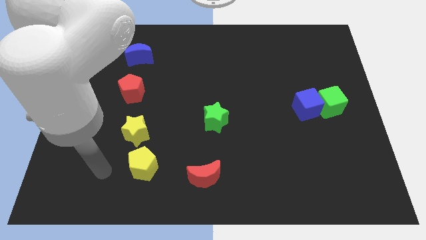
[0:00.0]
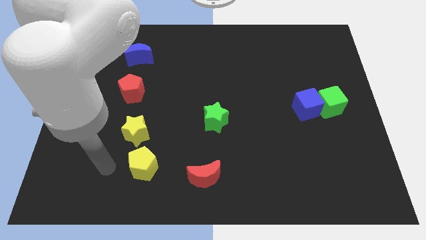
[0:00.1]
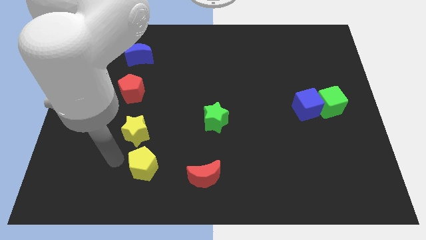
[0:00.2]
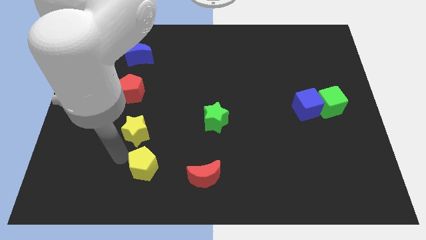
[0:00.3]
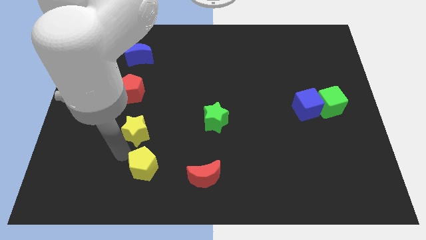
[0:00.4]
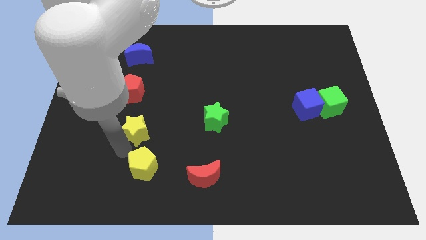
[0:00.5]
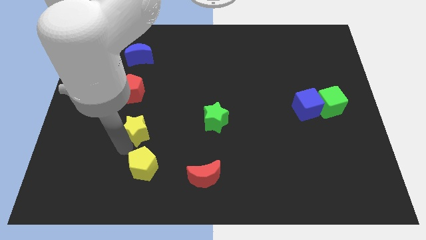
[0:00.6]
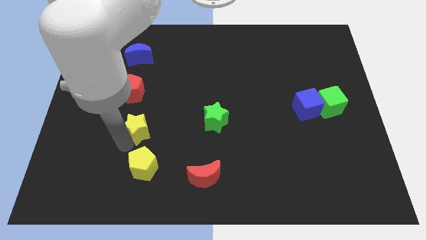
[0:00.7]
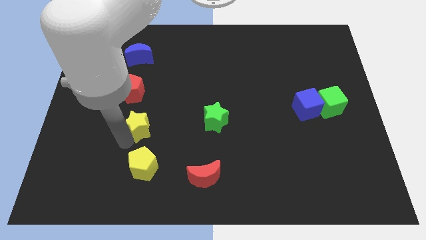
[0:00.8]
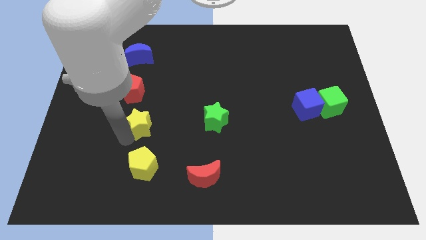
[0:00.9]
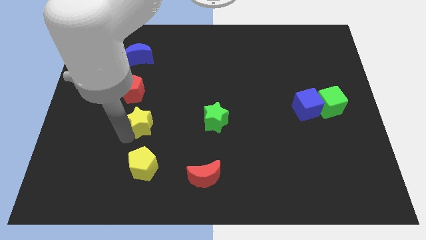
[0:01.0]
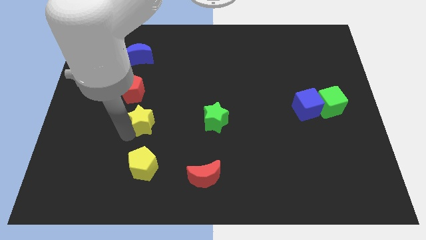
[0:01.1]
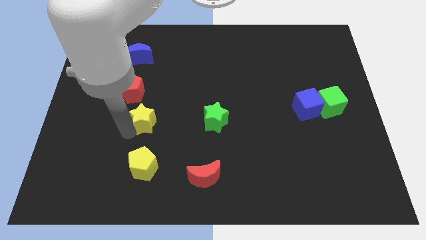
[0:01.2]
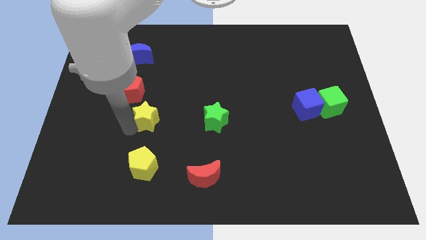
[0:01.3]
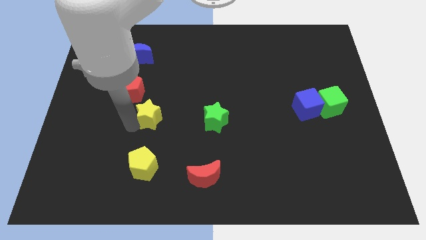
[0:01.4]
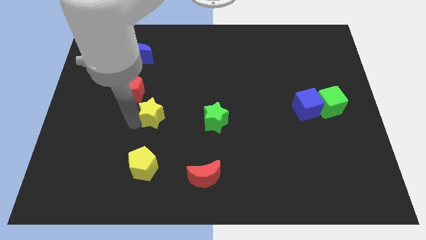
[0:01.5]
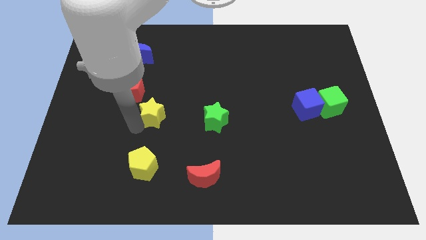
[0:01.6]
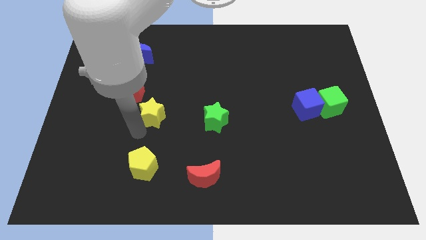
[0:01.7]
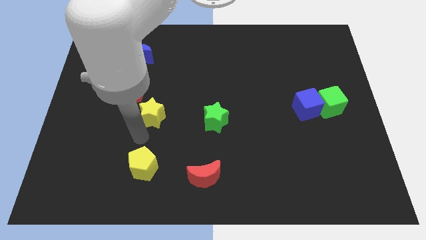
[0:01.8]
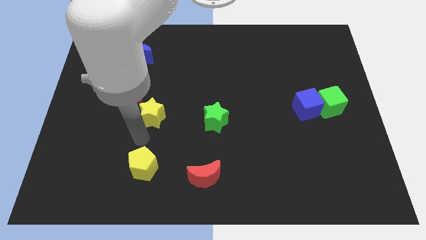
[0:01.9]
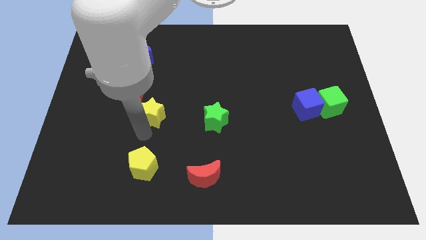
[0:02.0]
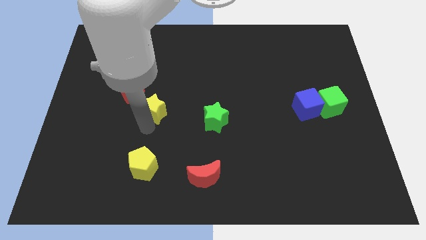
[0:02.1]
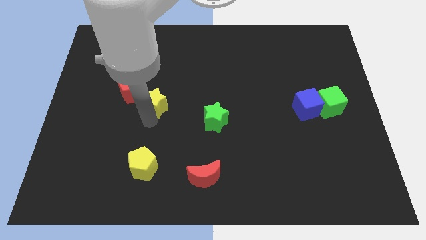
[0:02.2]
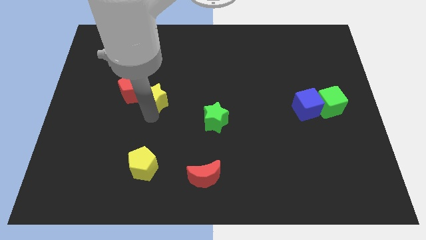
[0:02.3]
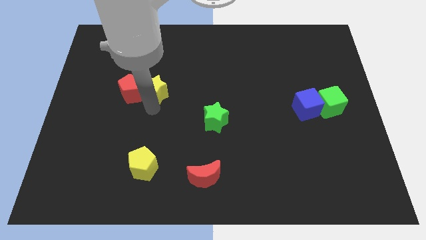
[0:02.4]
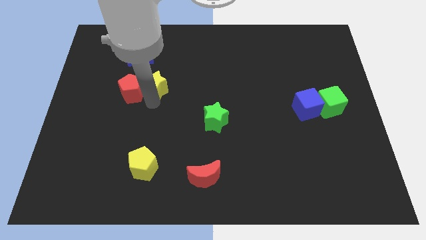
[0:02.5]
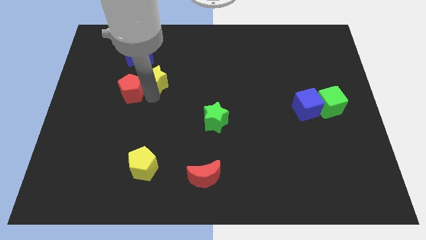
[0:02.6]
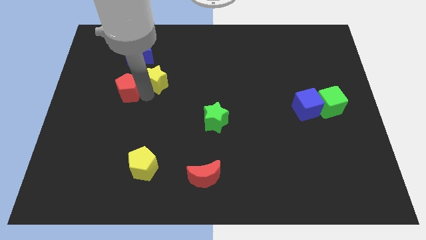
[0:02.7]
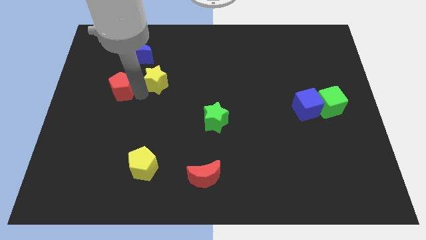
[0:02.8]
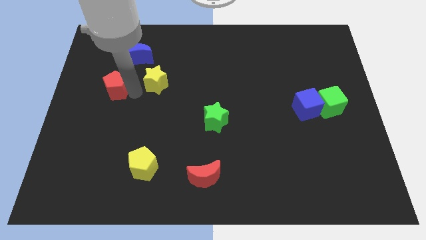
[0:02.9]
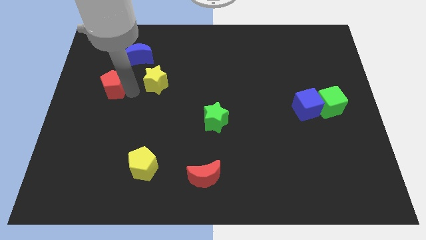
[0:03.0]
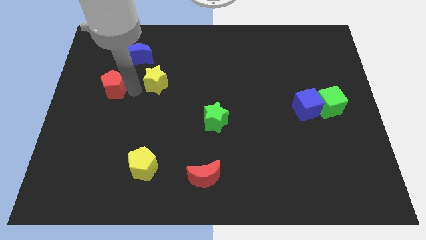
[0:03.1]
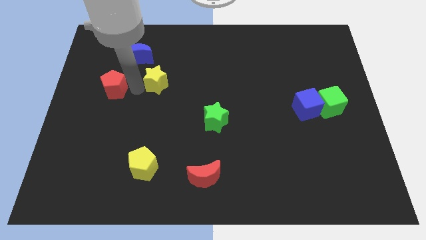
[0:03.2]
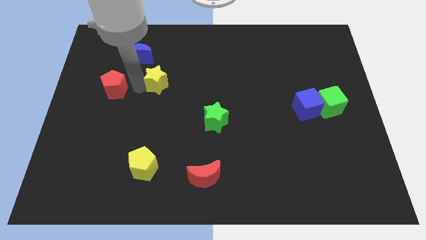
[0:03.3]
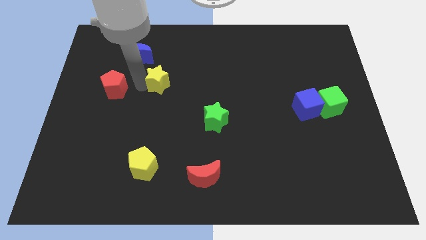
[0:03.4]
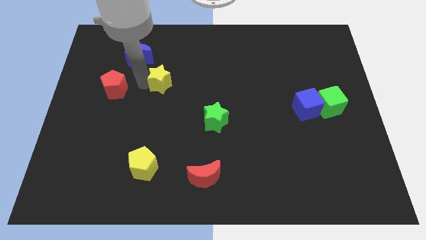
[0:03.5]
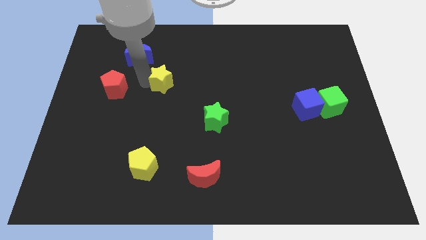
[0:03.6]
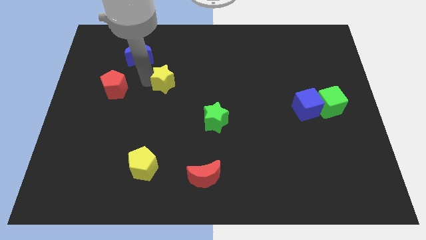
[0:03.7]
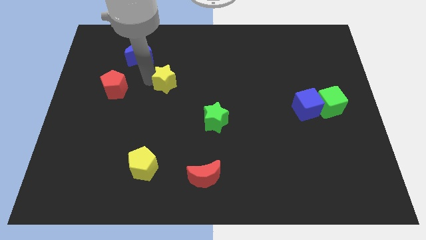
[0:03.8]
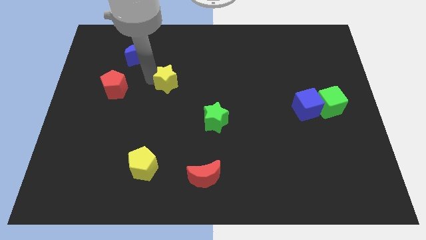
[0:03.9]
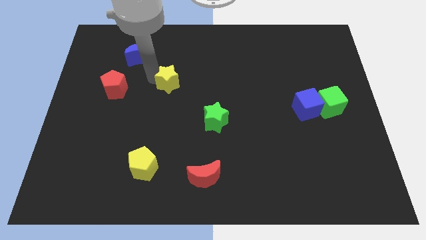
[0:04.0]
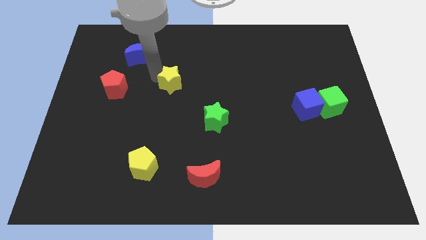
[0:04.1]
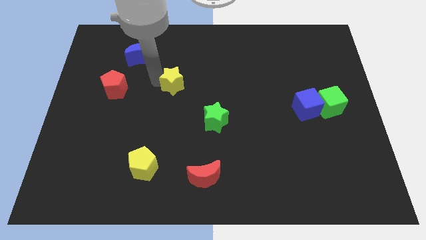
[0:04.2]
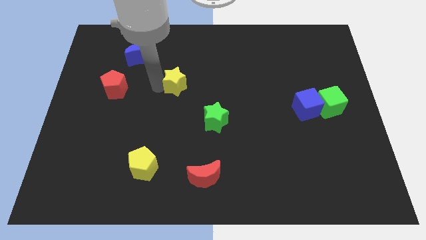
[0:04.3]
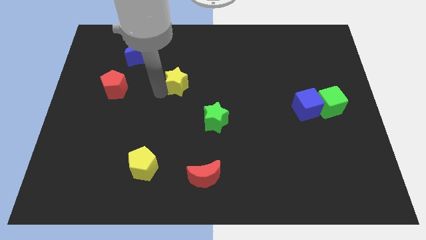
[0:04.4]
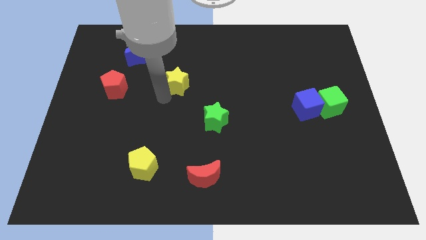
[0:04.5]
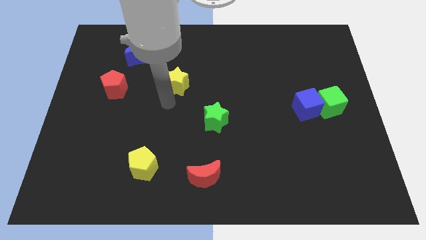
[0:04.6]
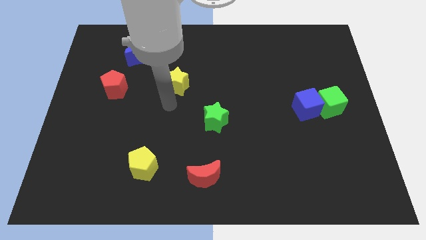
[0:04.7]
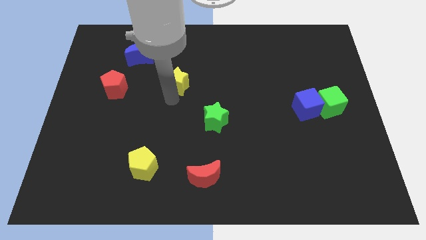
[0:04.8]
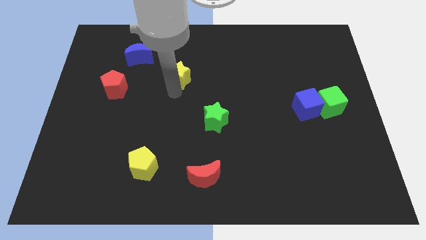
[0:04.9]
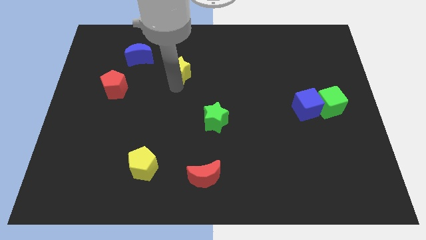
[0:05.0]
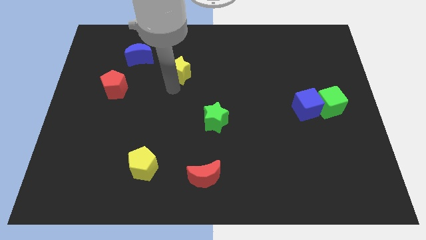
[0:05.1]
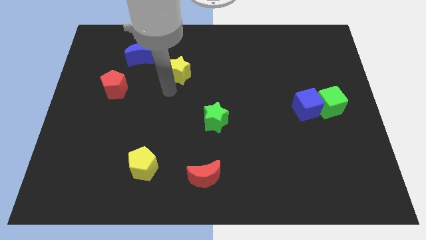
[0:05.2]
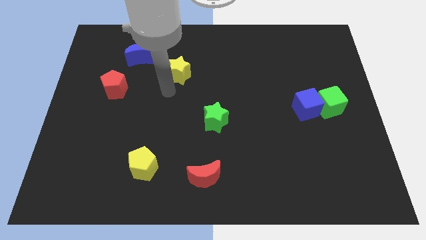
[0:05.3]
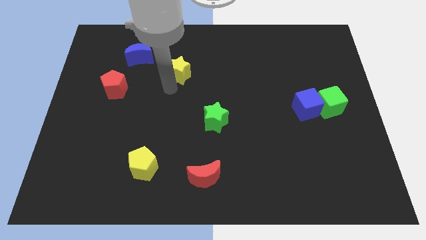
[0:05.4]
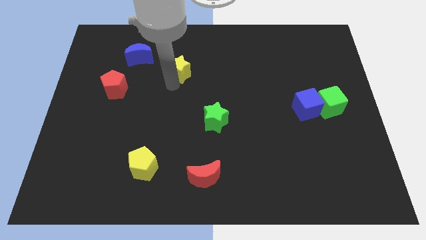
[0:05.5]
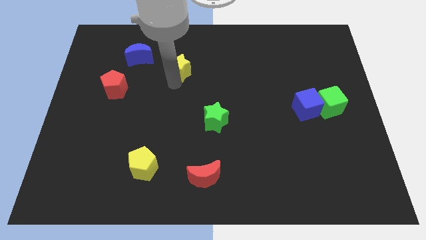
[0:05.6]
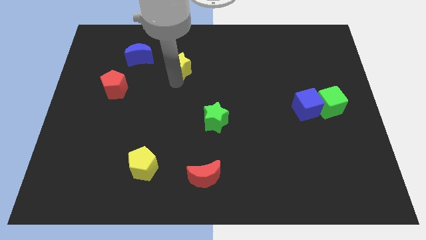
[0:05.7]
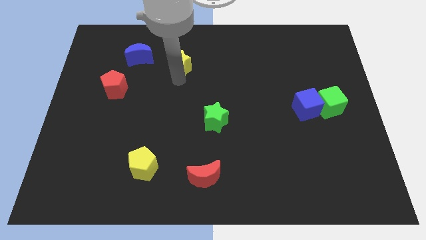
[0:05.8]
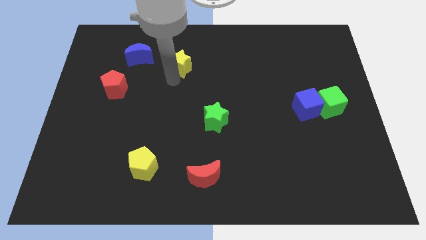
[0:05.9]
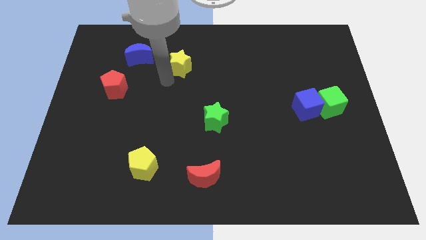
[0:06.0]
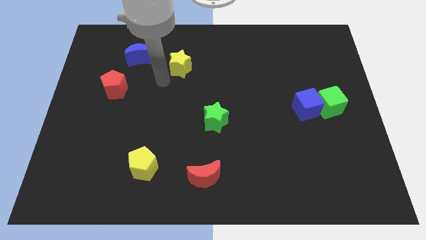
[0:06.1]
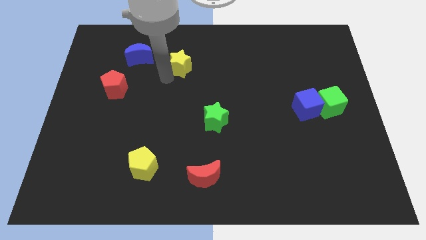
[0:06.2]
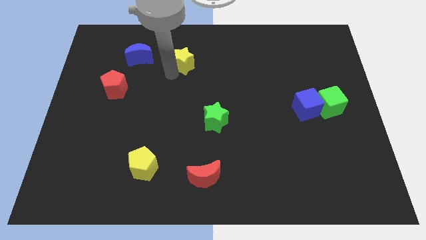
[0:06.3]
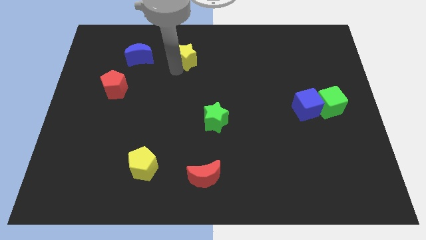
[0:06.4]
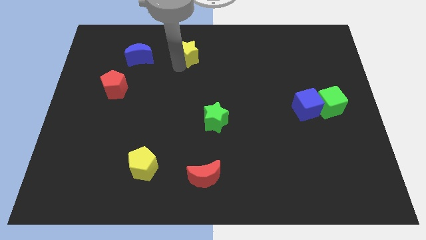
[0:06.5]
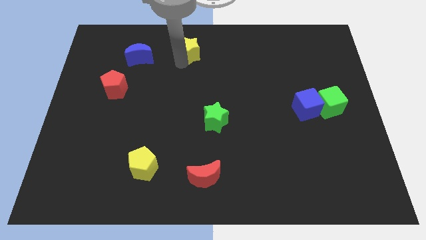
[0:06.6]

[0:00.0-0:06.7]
push the yellow star to the top side
